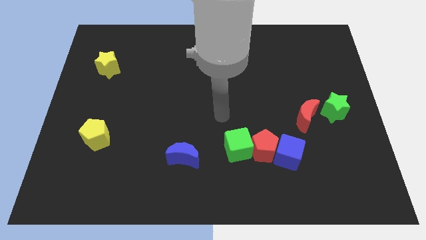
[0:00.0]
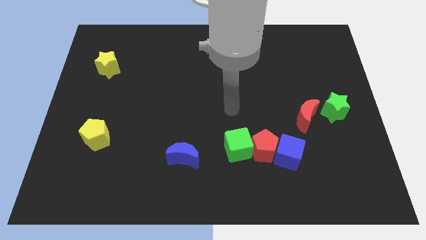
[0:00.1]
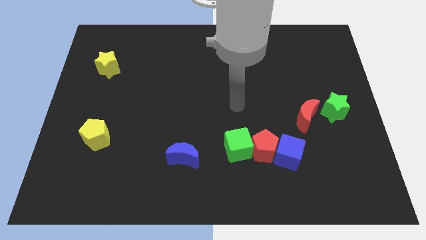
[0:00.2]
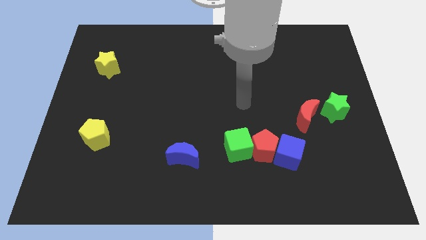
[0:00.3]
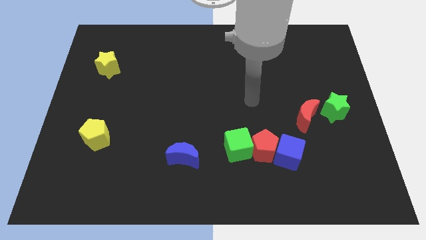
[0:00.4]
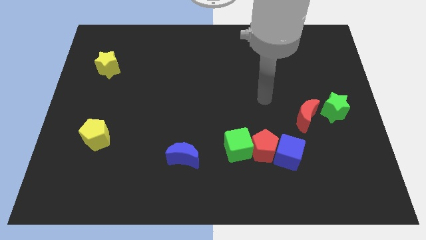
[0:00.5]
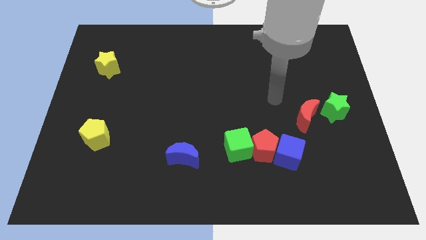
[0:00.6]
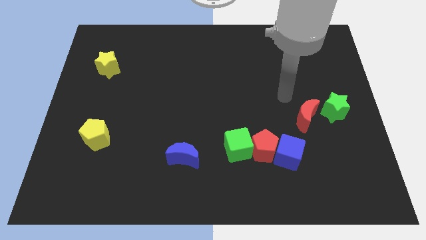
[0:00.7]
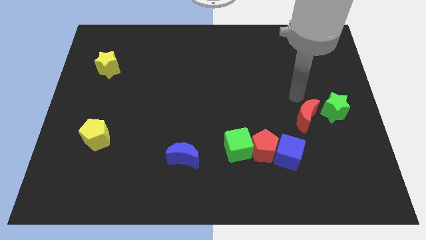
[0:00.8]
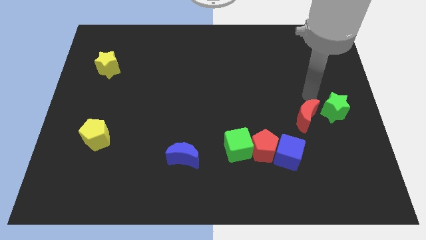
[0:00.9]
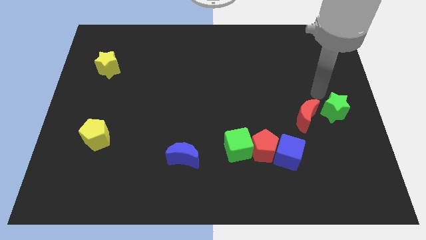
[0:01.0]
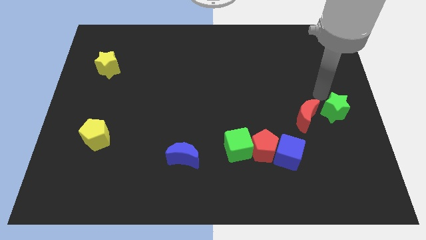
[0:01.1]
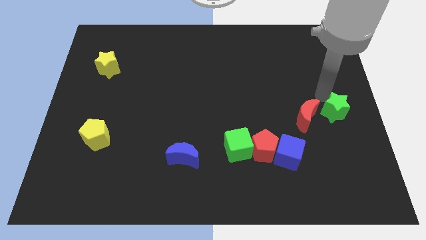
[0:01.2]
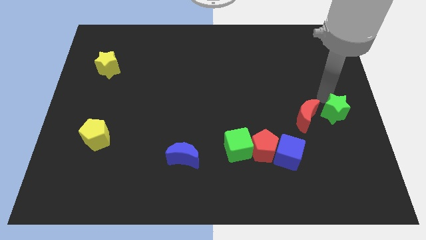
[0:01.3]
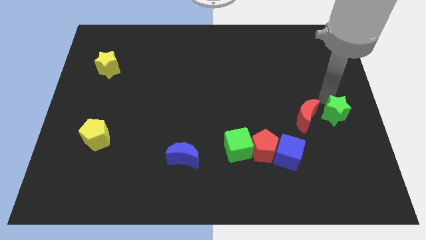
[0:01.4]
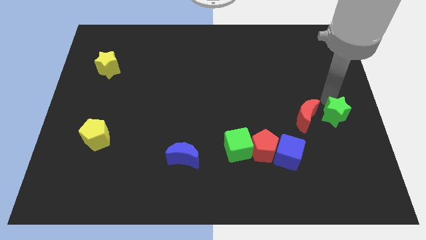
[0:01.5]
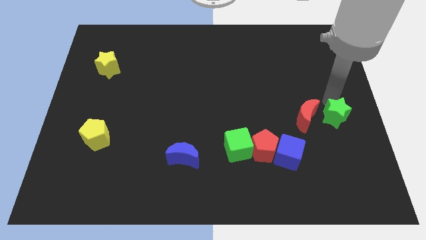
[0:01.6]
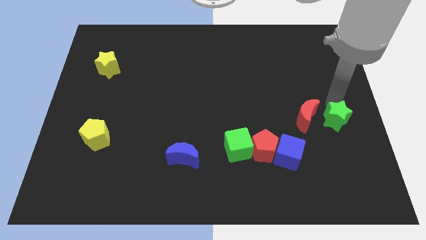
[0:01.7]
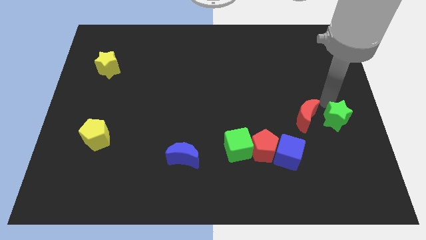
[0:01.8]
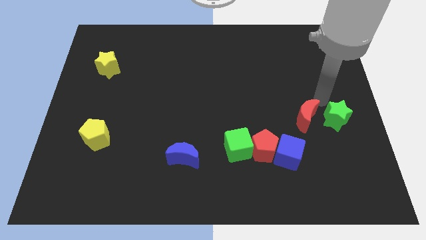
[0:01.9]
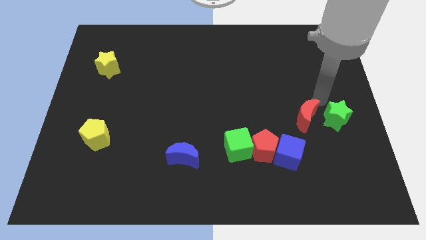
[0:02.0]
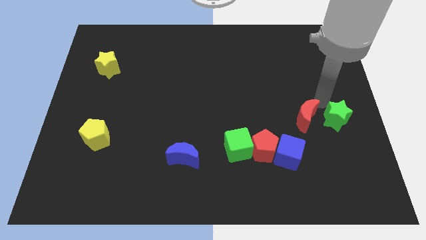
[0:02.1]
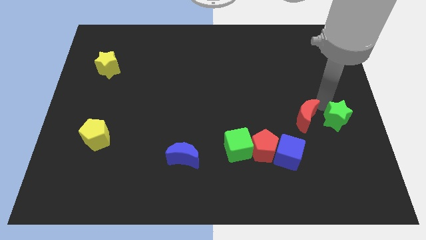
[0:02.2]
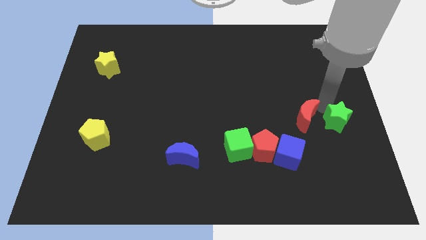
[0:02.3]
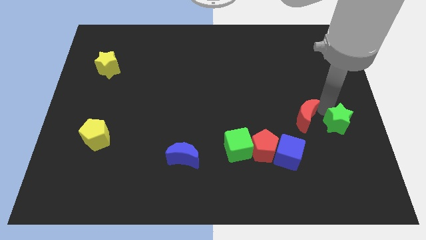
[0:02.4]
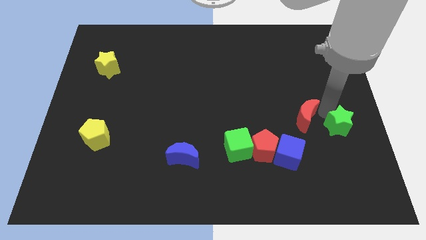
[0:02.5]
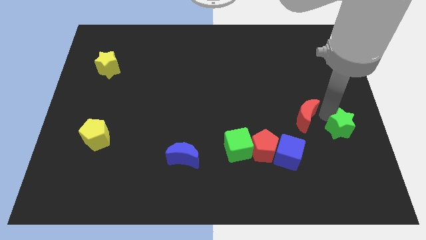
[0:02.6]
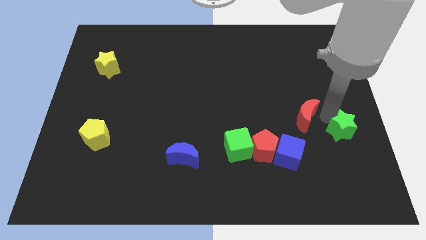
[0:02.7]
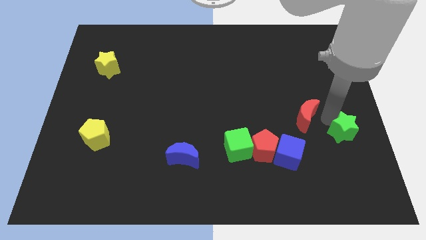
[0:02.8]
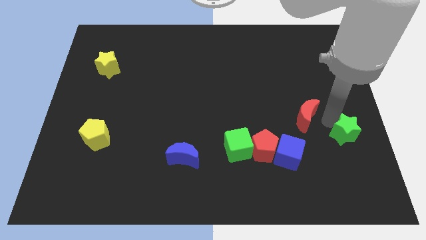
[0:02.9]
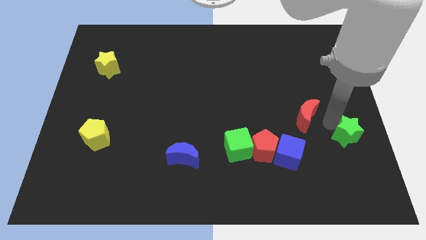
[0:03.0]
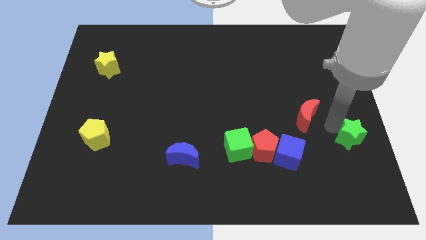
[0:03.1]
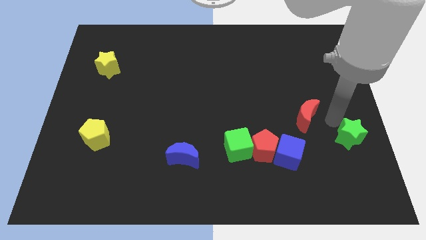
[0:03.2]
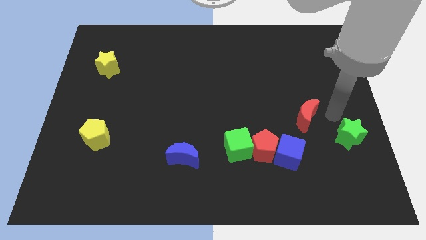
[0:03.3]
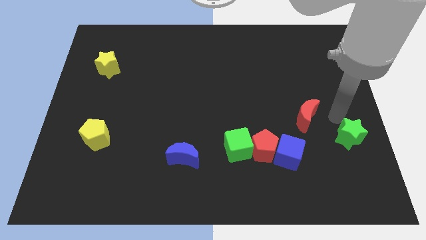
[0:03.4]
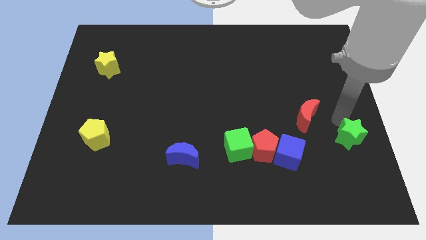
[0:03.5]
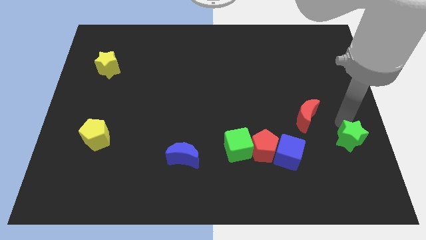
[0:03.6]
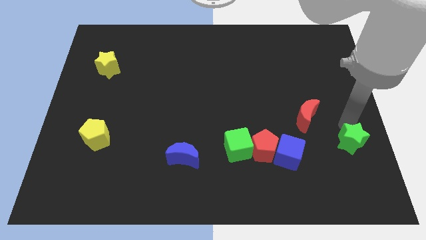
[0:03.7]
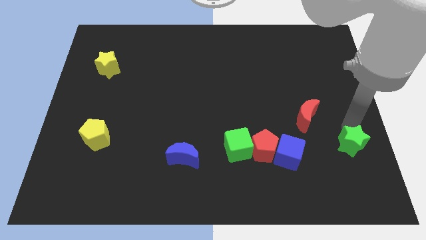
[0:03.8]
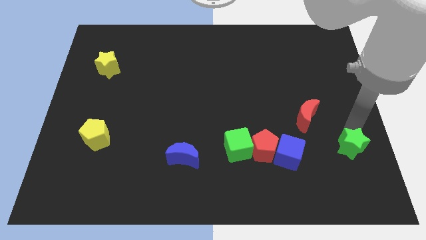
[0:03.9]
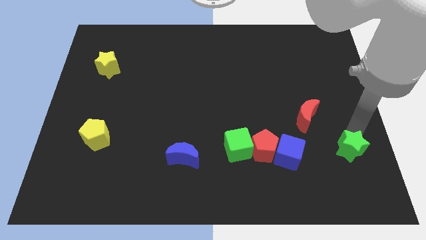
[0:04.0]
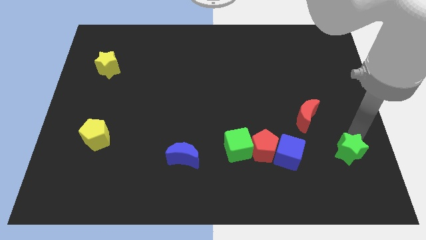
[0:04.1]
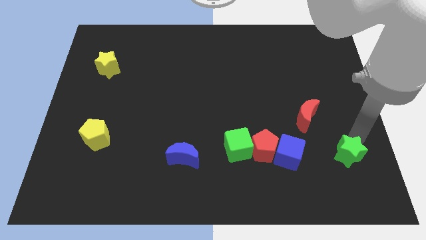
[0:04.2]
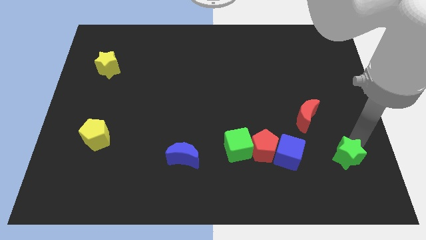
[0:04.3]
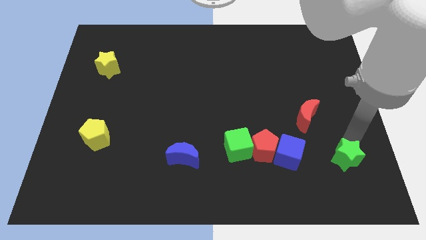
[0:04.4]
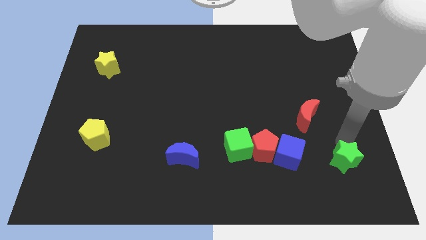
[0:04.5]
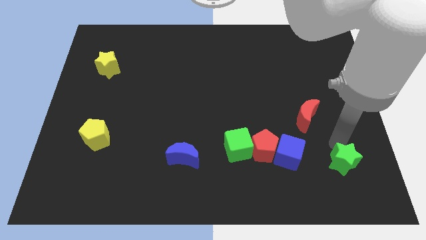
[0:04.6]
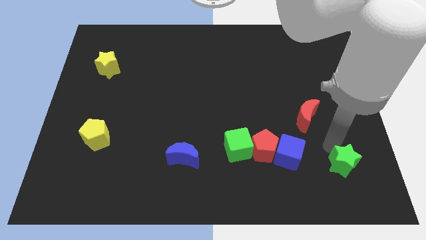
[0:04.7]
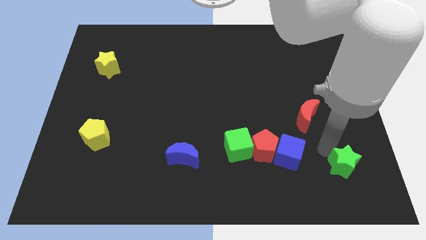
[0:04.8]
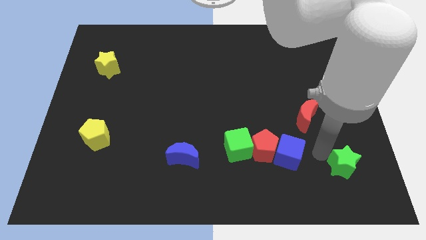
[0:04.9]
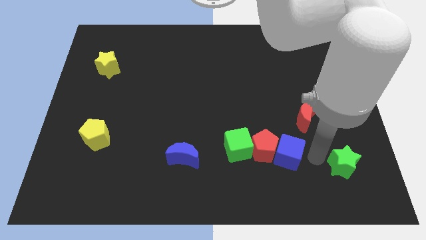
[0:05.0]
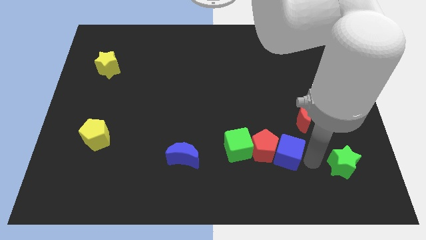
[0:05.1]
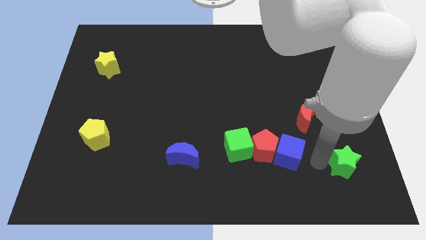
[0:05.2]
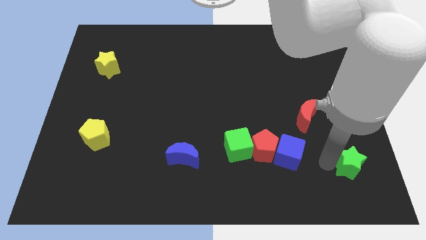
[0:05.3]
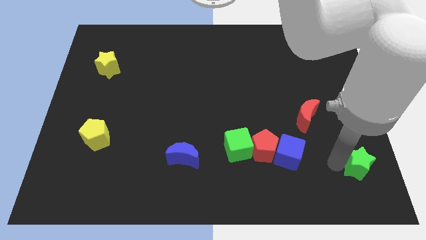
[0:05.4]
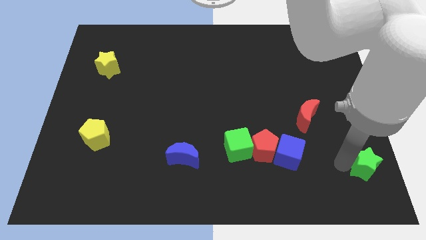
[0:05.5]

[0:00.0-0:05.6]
put the green star to the bottom right
